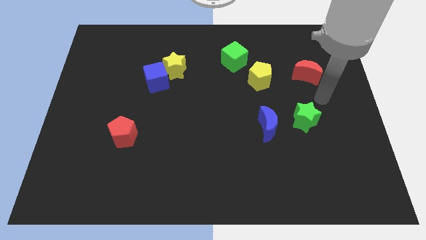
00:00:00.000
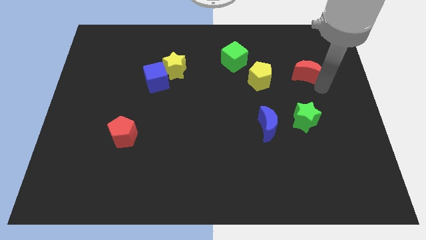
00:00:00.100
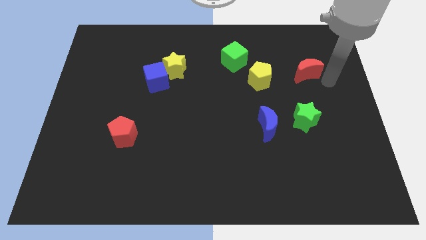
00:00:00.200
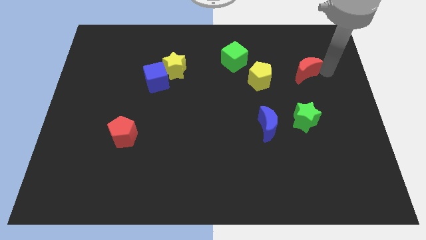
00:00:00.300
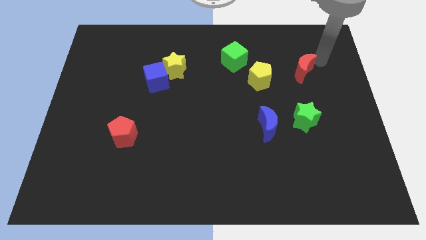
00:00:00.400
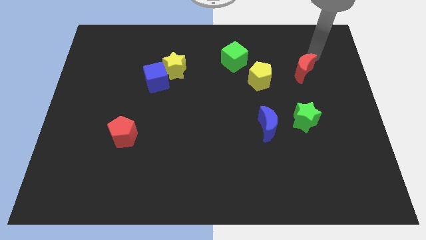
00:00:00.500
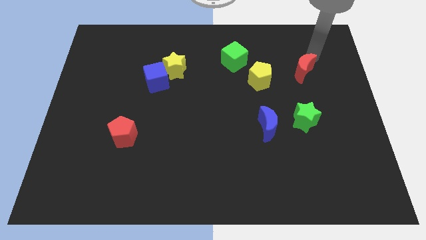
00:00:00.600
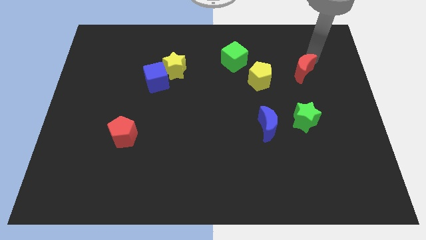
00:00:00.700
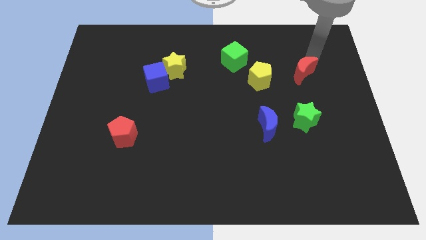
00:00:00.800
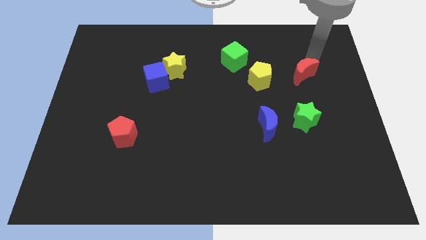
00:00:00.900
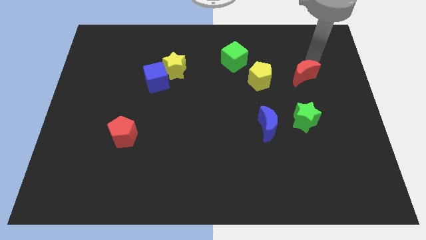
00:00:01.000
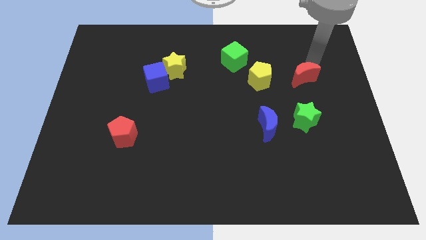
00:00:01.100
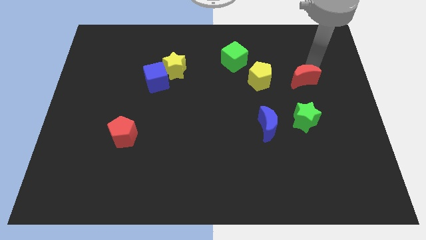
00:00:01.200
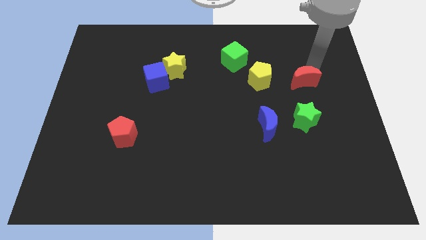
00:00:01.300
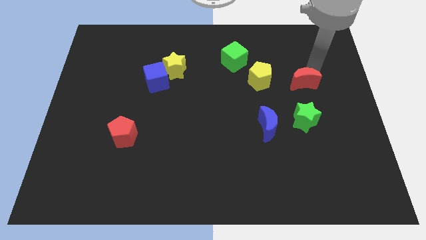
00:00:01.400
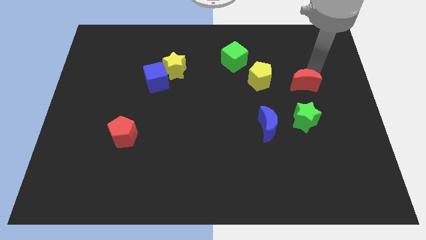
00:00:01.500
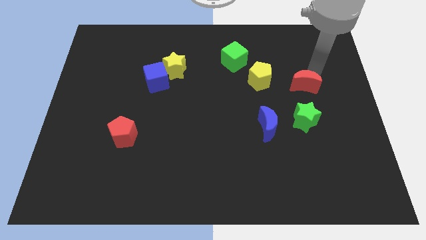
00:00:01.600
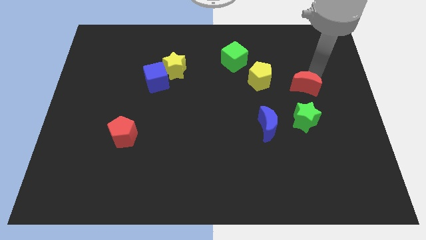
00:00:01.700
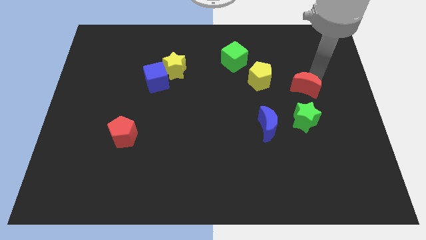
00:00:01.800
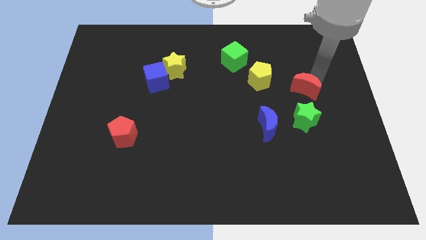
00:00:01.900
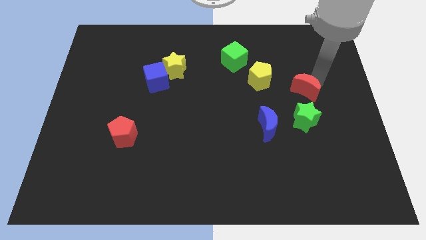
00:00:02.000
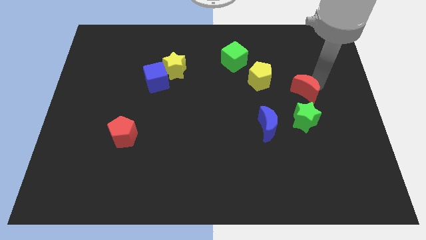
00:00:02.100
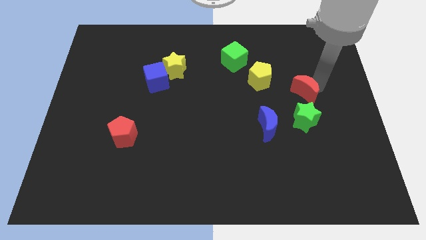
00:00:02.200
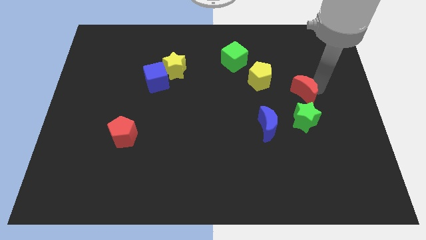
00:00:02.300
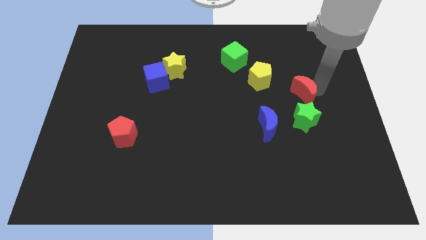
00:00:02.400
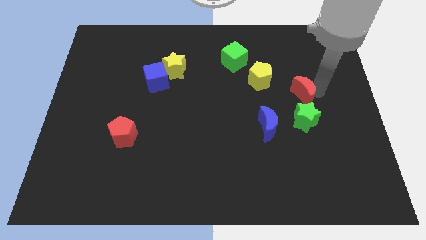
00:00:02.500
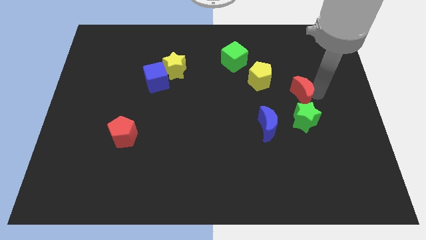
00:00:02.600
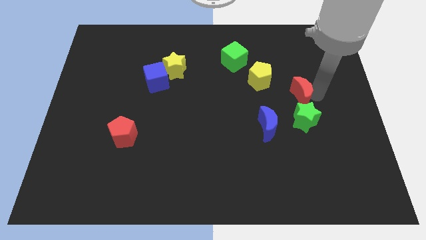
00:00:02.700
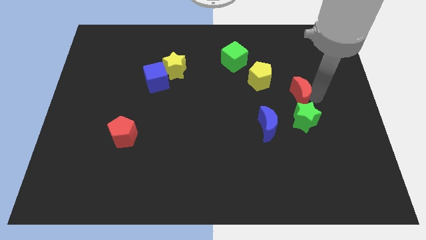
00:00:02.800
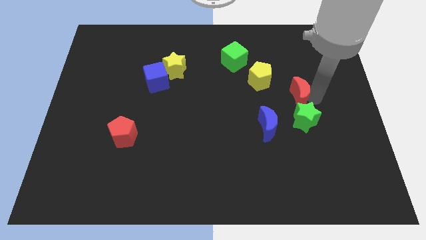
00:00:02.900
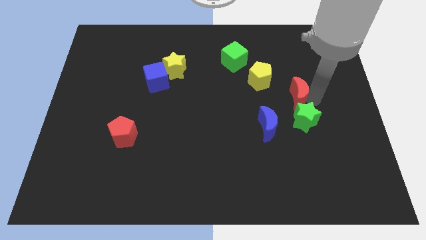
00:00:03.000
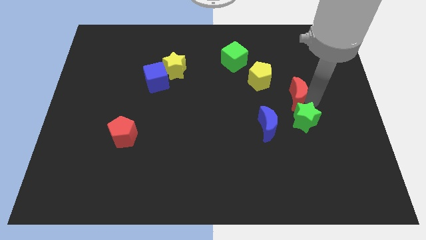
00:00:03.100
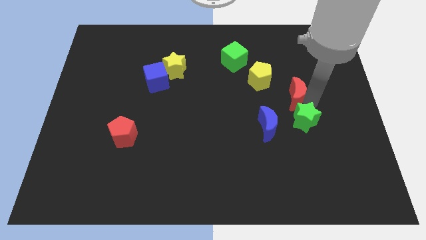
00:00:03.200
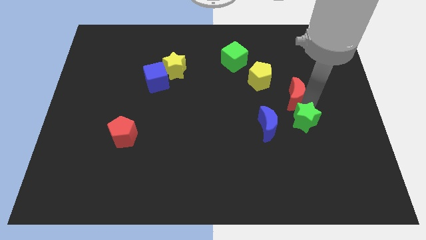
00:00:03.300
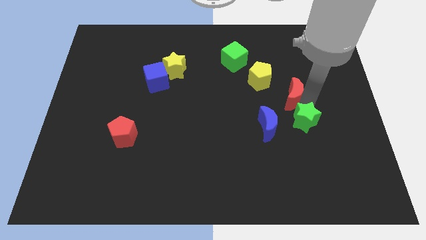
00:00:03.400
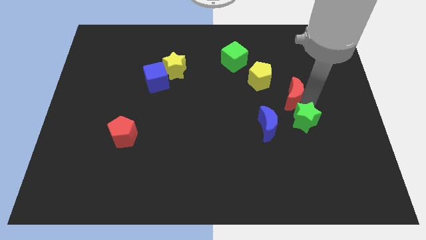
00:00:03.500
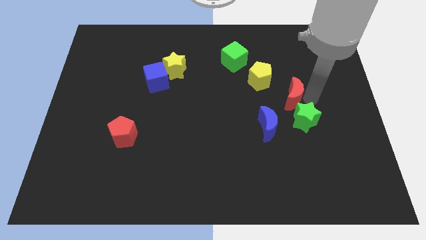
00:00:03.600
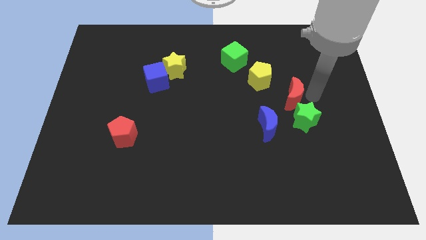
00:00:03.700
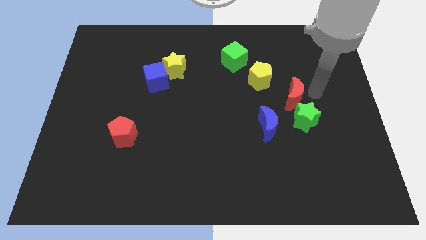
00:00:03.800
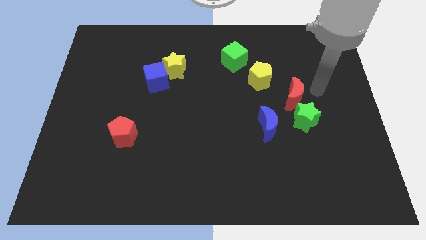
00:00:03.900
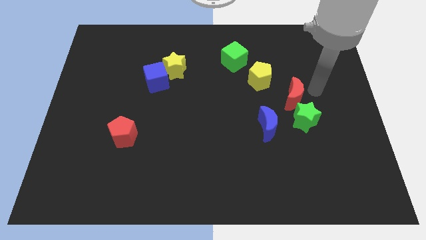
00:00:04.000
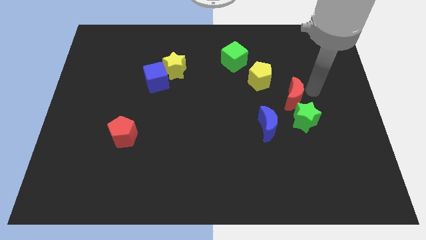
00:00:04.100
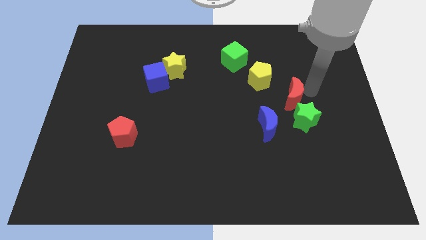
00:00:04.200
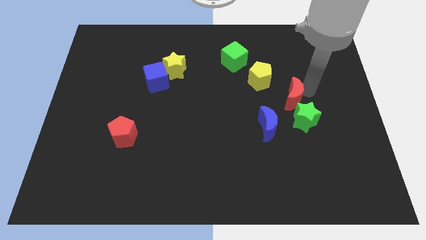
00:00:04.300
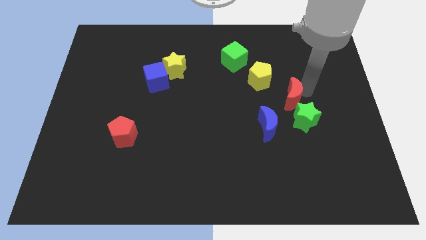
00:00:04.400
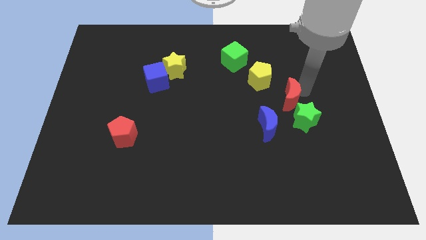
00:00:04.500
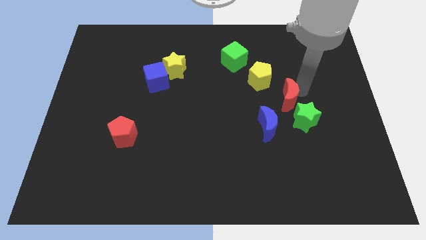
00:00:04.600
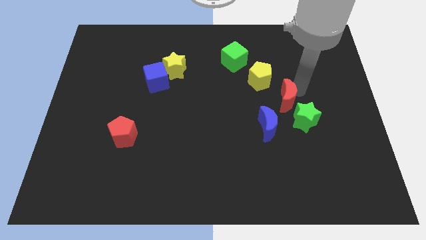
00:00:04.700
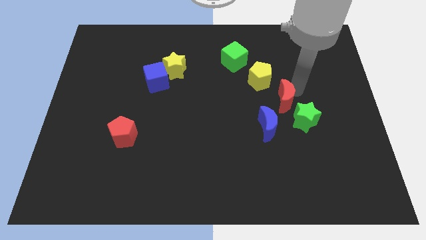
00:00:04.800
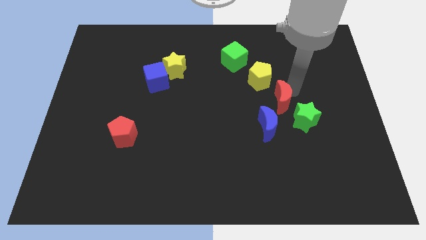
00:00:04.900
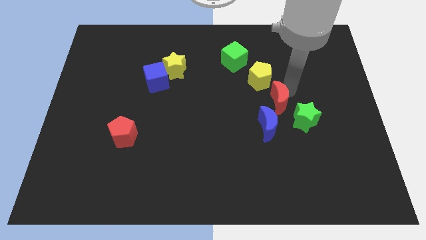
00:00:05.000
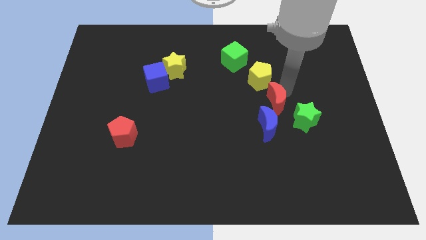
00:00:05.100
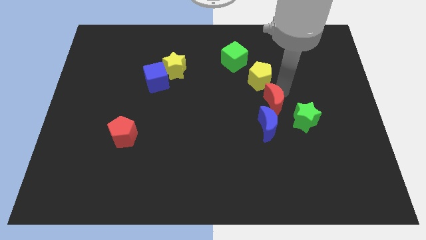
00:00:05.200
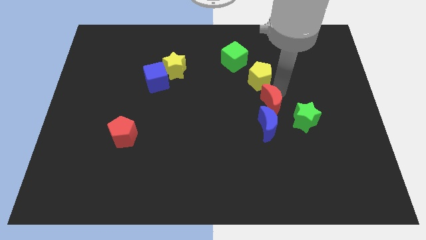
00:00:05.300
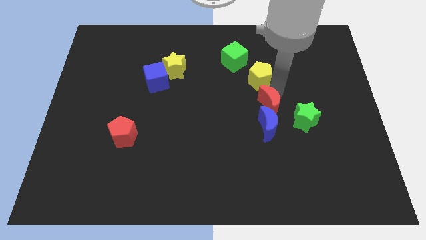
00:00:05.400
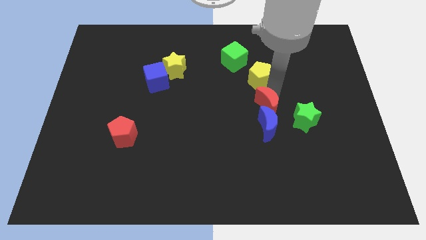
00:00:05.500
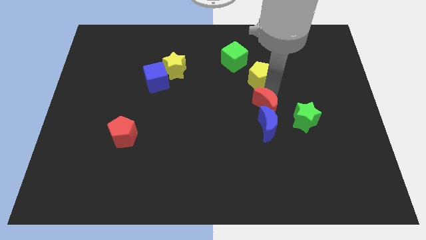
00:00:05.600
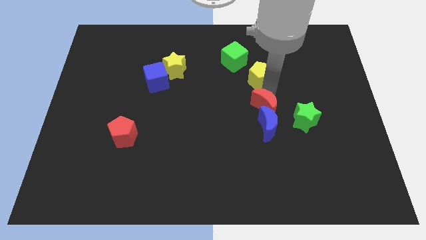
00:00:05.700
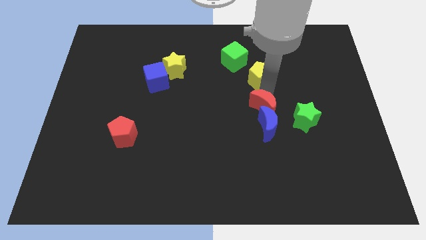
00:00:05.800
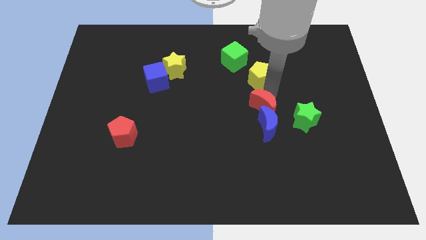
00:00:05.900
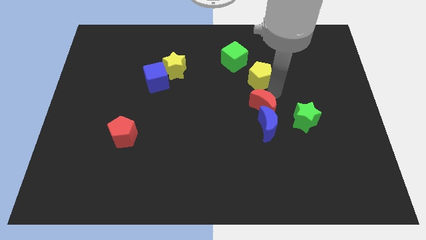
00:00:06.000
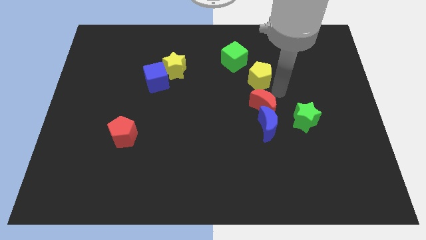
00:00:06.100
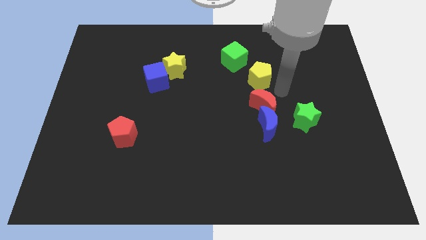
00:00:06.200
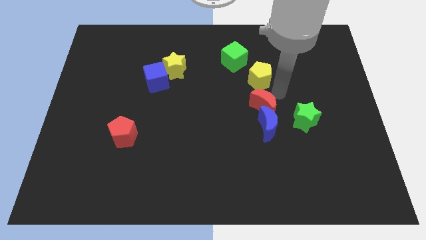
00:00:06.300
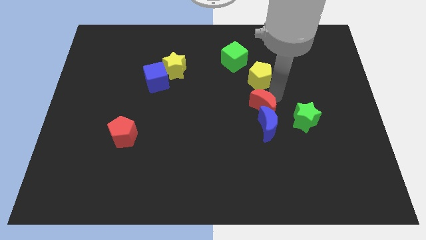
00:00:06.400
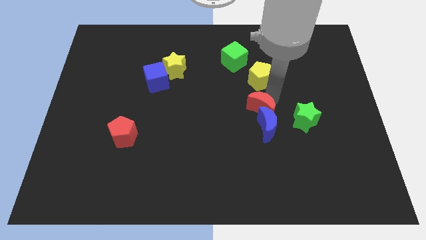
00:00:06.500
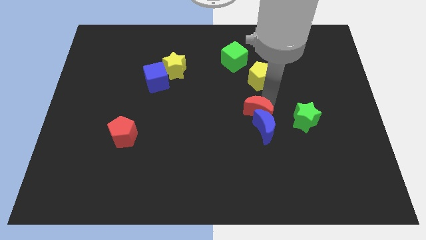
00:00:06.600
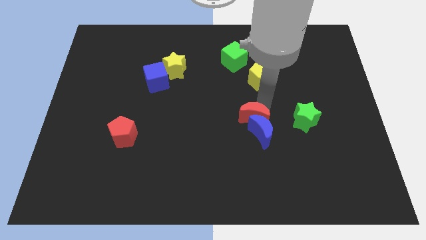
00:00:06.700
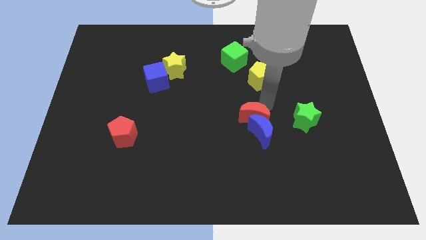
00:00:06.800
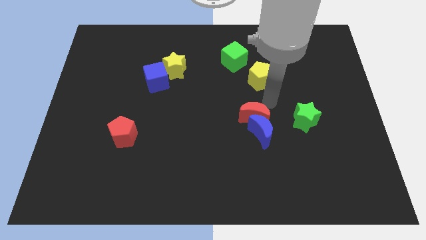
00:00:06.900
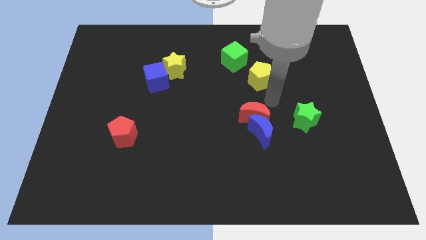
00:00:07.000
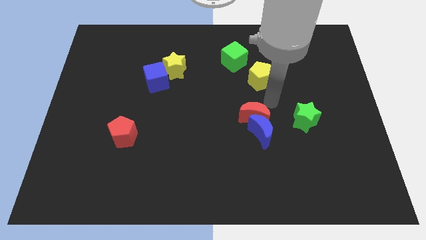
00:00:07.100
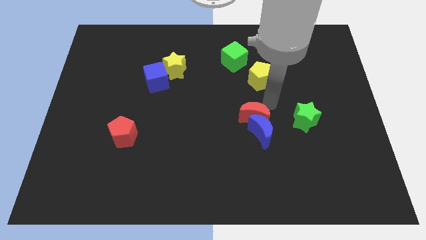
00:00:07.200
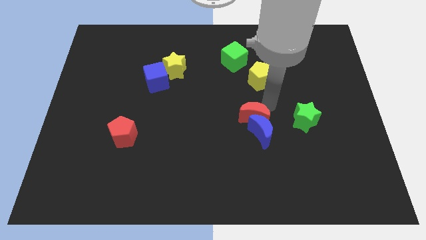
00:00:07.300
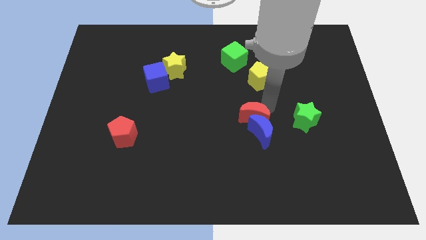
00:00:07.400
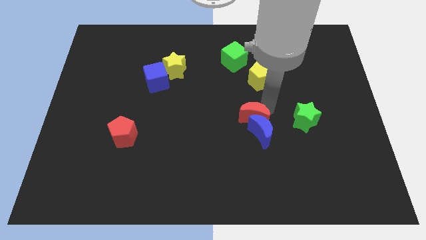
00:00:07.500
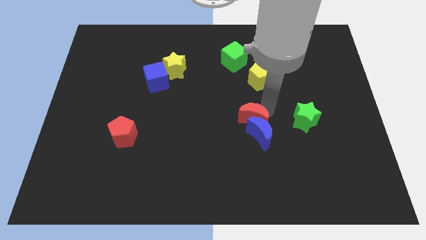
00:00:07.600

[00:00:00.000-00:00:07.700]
push the red moon diagonally downwards and to the left

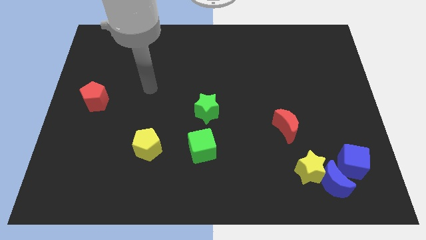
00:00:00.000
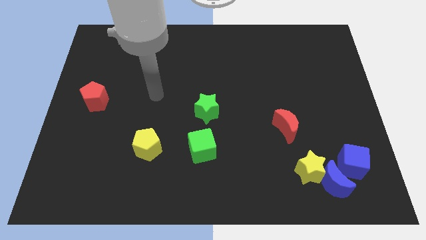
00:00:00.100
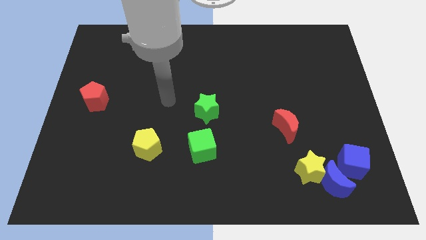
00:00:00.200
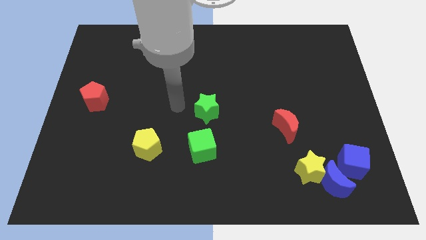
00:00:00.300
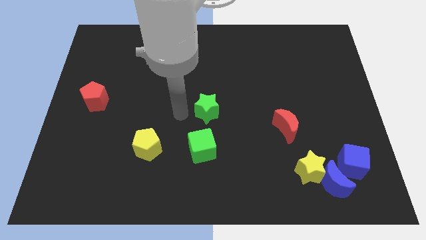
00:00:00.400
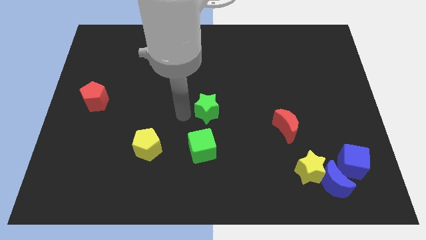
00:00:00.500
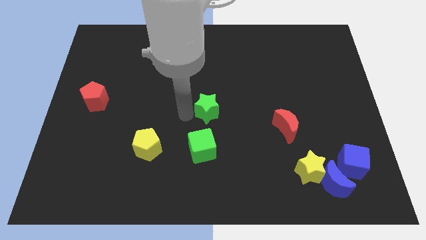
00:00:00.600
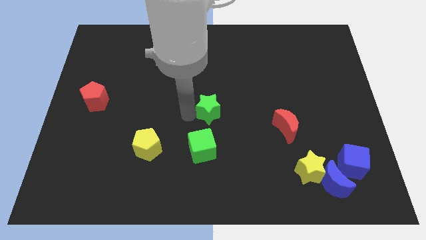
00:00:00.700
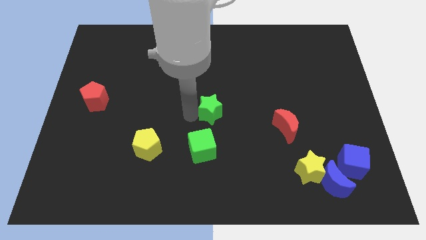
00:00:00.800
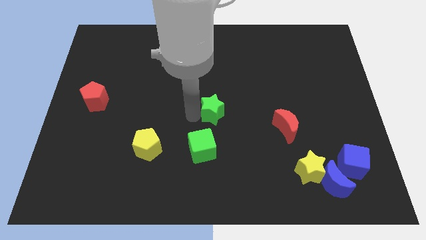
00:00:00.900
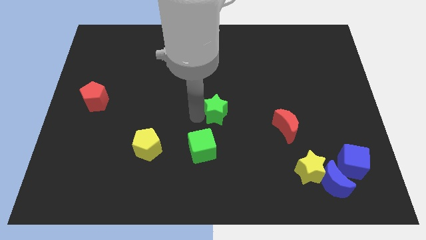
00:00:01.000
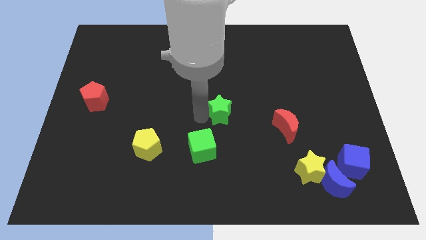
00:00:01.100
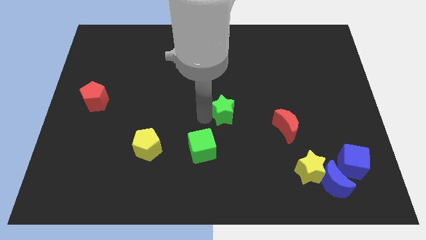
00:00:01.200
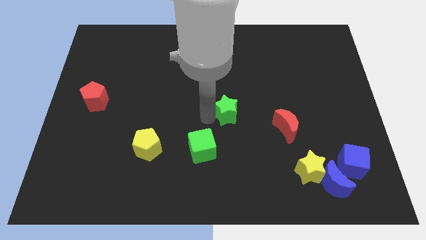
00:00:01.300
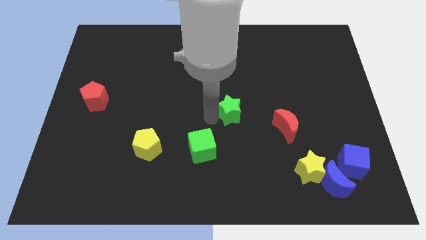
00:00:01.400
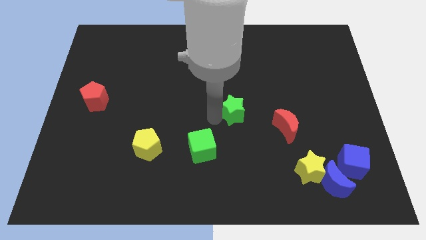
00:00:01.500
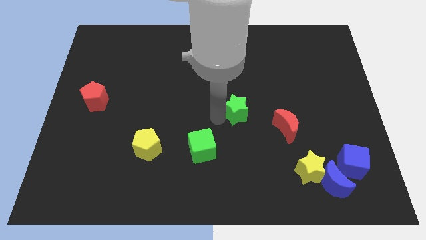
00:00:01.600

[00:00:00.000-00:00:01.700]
slightly push the green star to the right
